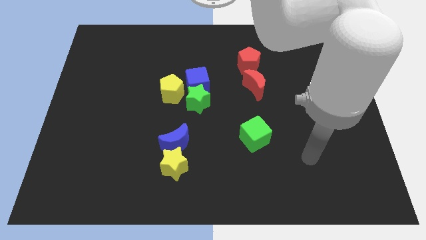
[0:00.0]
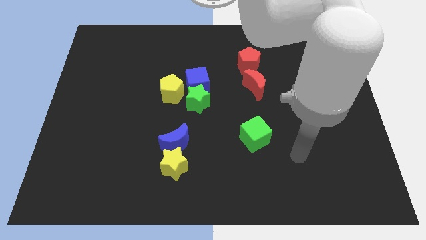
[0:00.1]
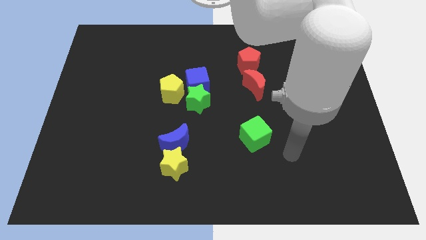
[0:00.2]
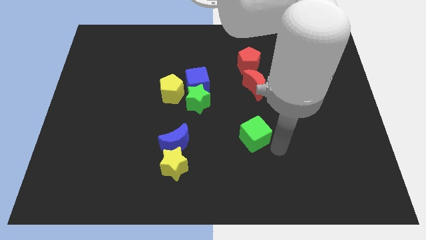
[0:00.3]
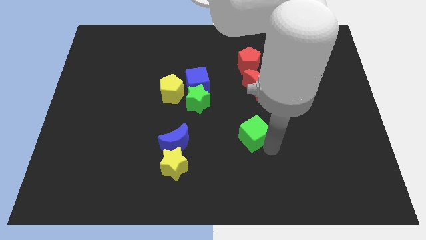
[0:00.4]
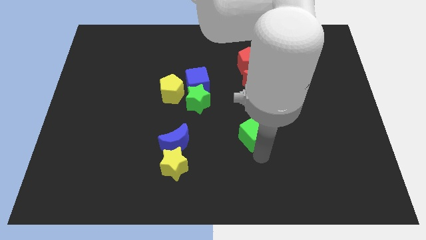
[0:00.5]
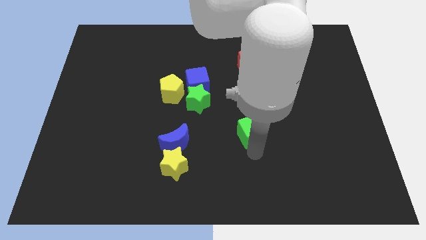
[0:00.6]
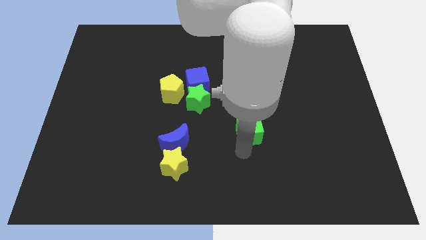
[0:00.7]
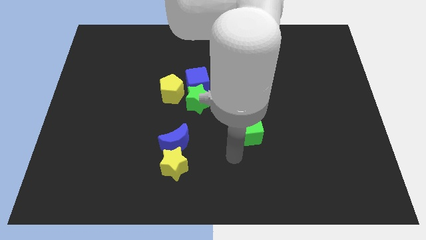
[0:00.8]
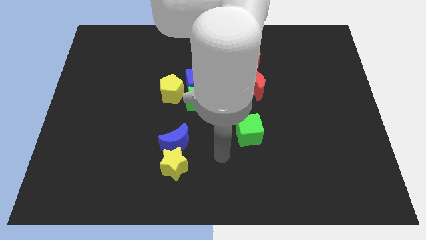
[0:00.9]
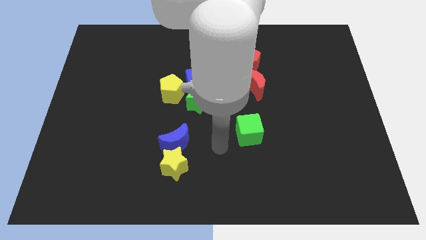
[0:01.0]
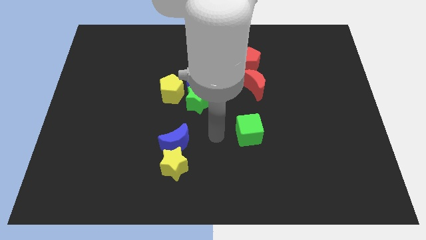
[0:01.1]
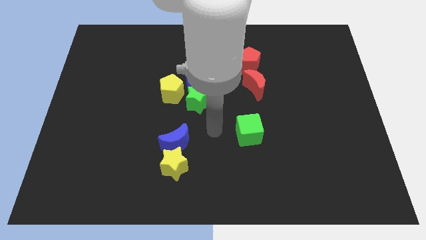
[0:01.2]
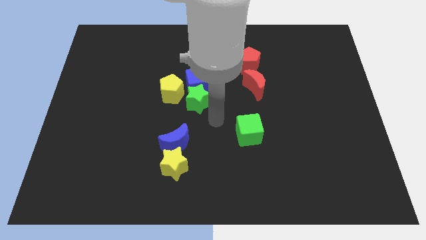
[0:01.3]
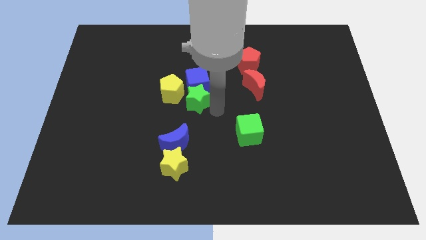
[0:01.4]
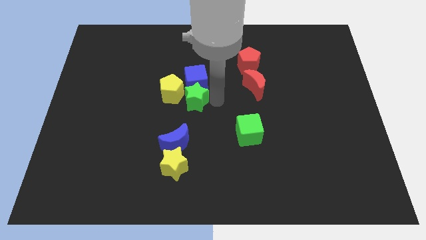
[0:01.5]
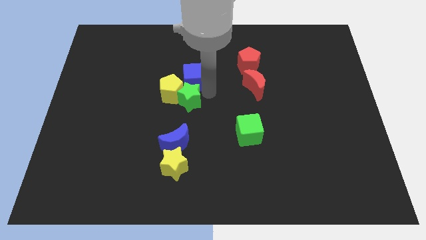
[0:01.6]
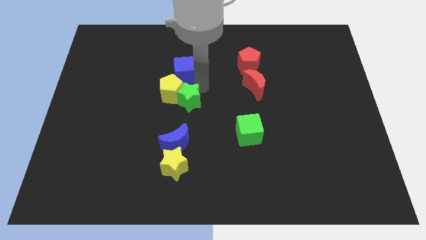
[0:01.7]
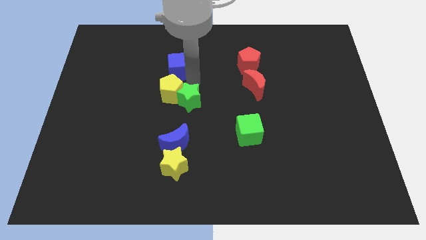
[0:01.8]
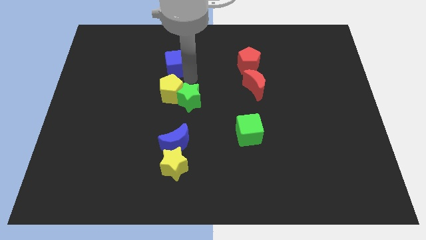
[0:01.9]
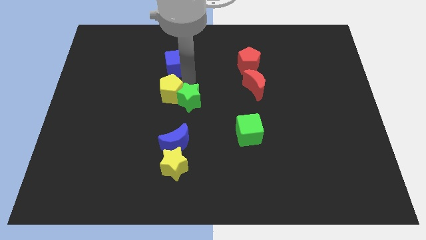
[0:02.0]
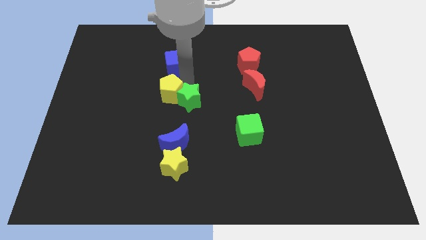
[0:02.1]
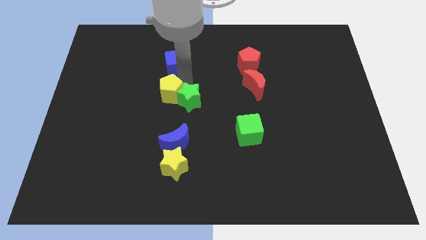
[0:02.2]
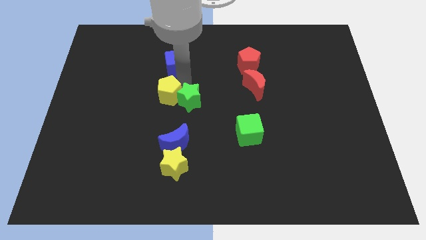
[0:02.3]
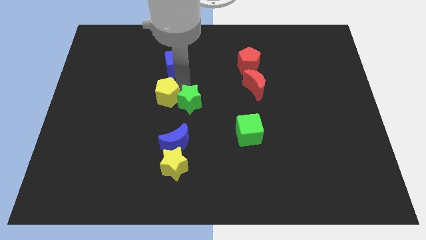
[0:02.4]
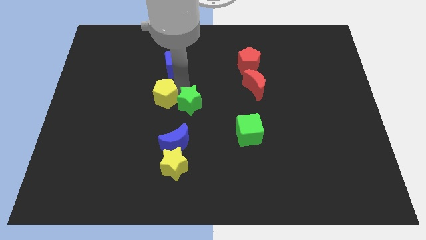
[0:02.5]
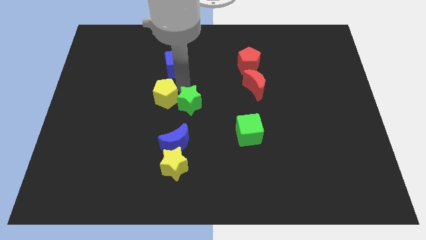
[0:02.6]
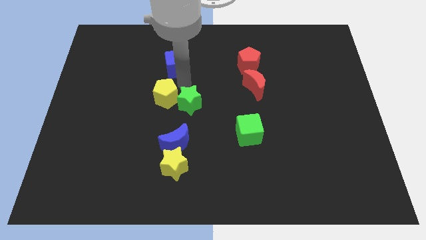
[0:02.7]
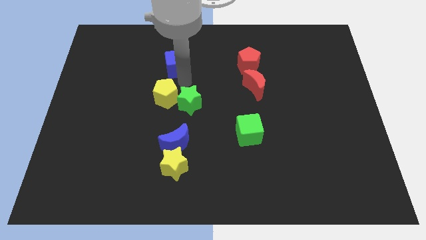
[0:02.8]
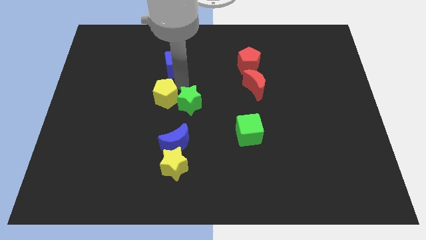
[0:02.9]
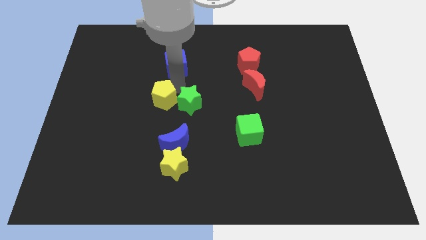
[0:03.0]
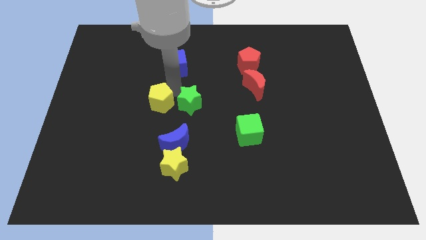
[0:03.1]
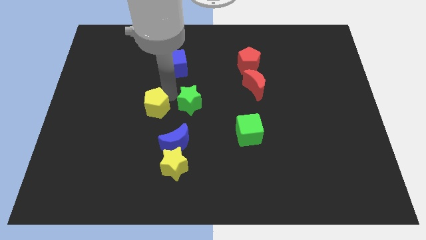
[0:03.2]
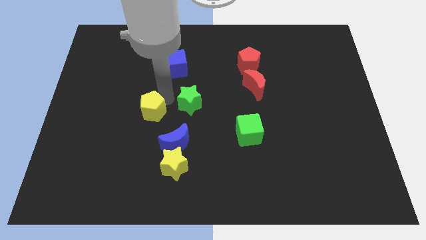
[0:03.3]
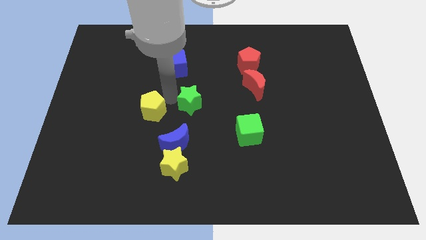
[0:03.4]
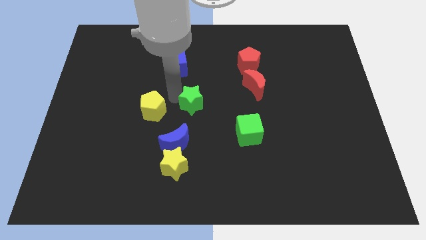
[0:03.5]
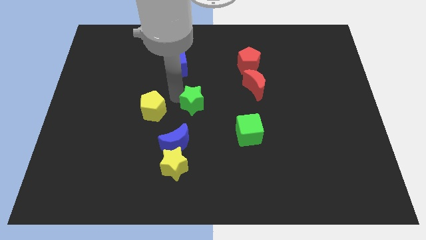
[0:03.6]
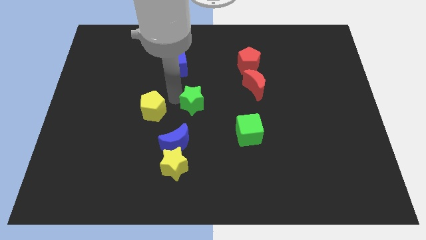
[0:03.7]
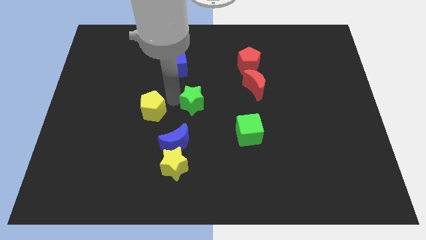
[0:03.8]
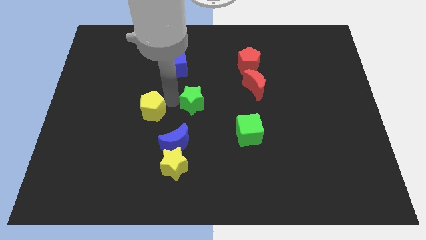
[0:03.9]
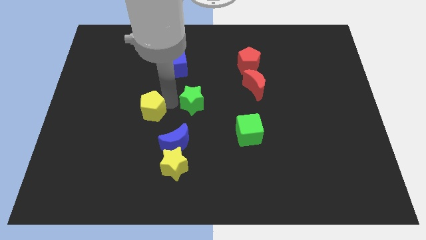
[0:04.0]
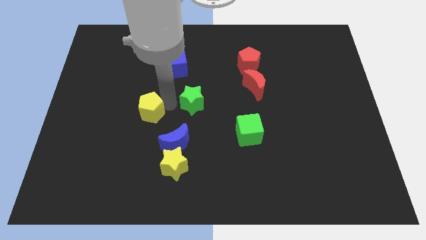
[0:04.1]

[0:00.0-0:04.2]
slightly move the yellow pentagon down and to the left diagonally

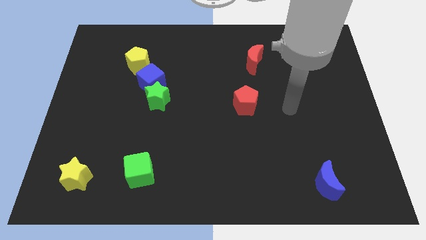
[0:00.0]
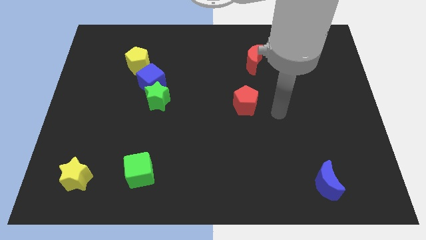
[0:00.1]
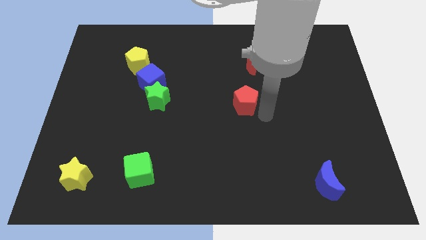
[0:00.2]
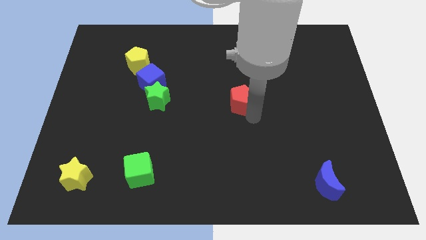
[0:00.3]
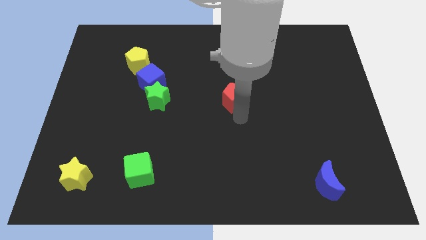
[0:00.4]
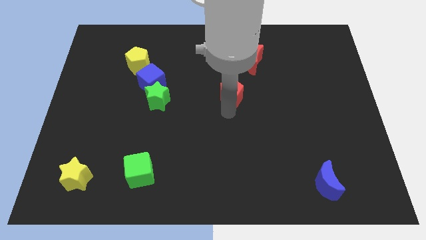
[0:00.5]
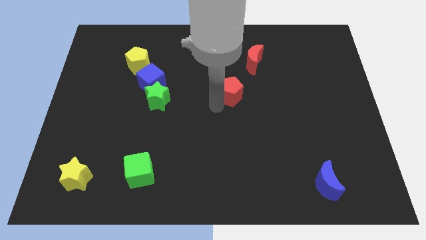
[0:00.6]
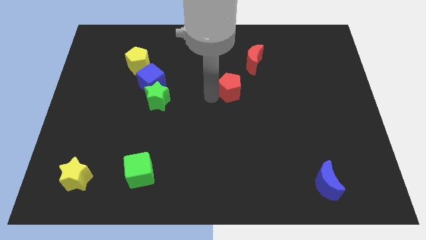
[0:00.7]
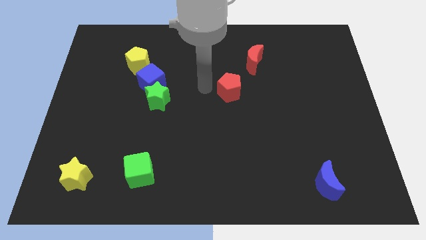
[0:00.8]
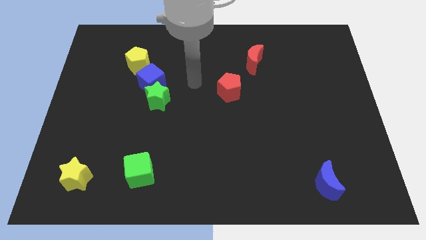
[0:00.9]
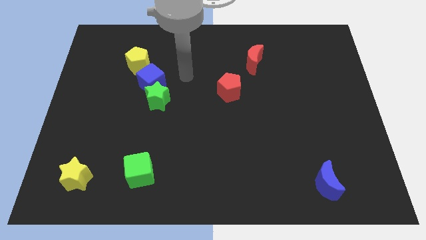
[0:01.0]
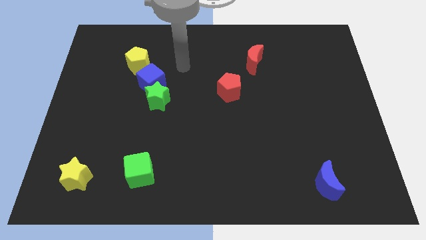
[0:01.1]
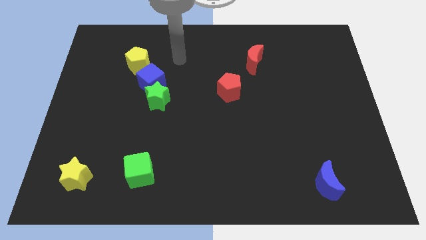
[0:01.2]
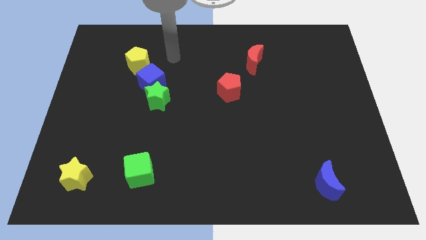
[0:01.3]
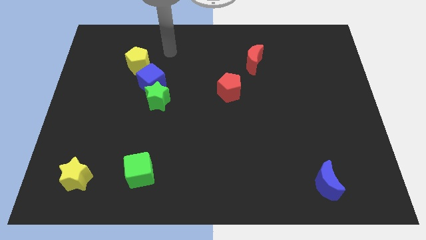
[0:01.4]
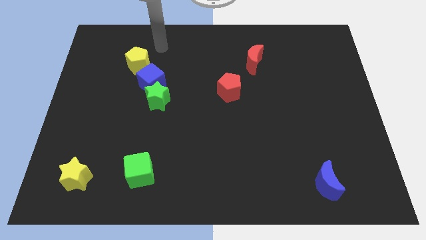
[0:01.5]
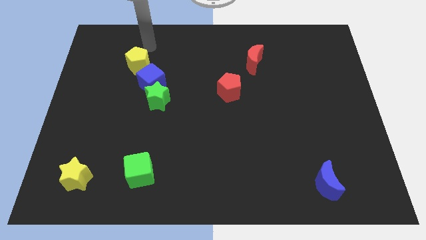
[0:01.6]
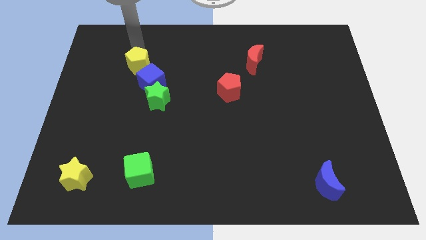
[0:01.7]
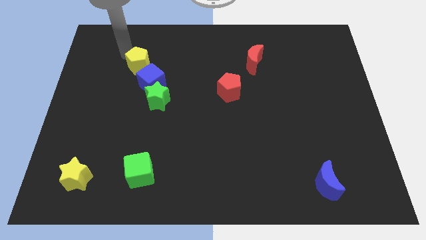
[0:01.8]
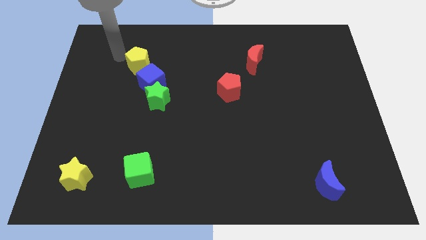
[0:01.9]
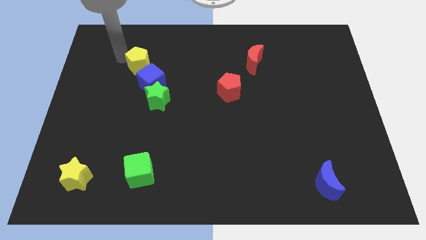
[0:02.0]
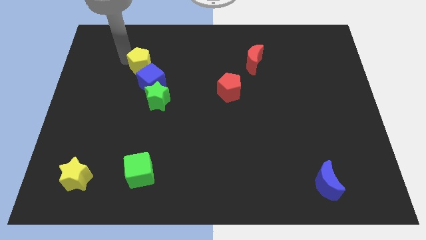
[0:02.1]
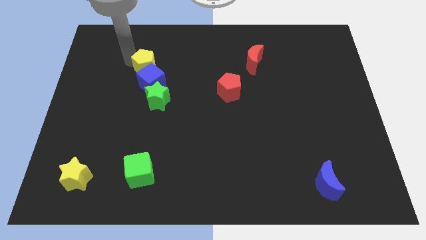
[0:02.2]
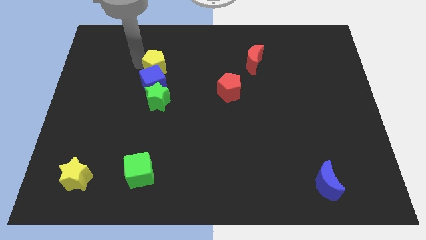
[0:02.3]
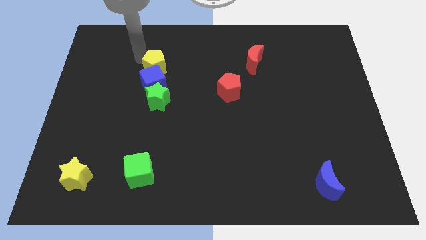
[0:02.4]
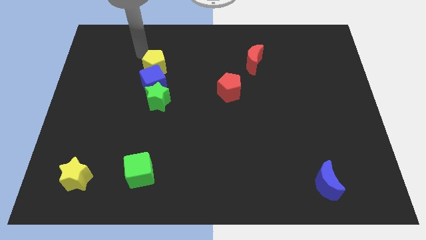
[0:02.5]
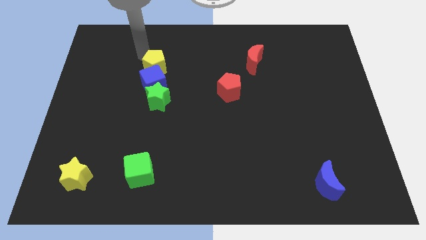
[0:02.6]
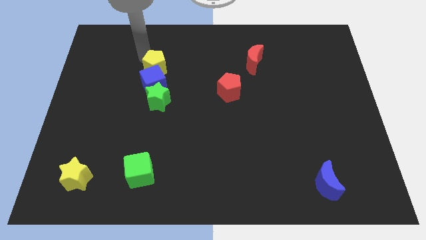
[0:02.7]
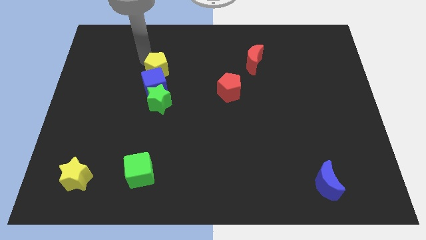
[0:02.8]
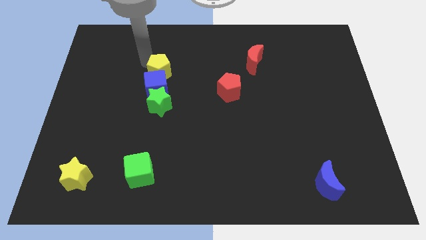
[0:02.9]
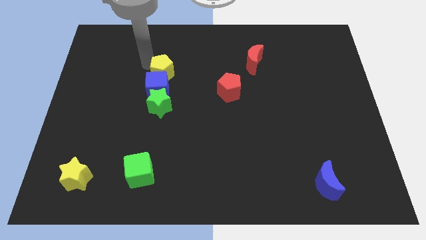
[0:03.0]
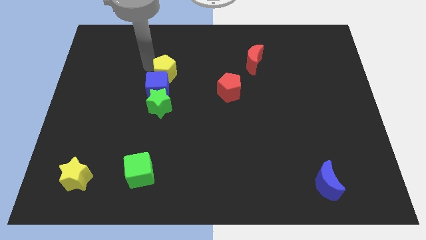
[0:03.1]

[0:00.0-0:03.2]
slide the yellow pentagon a little downwards and then to the right

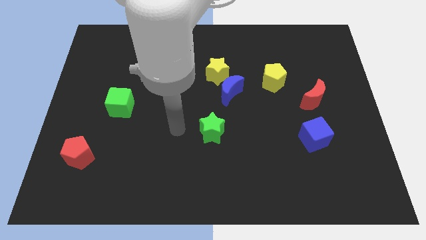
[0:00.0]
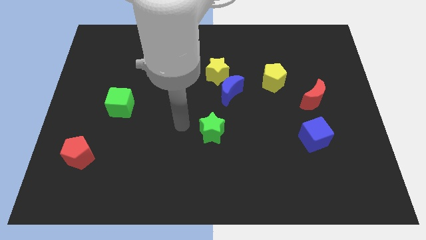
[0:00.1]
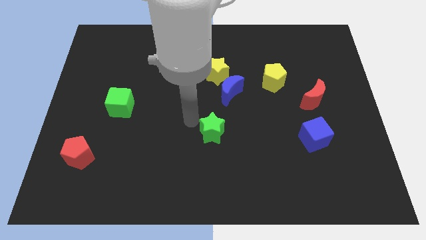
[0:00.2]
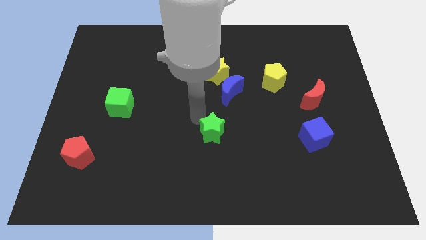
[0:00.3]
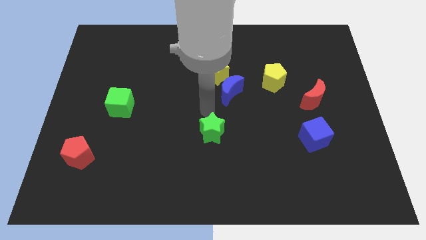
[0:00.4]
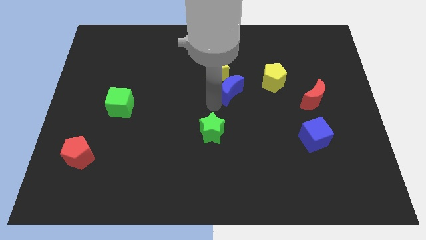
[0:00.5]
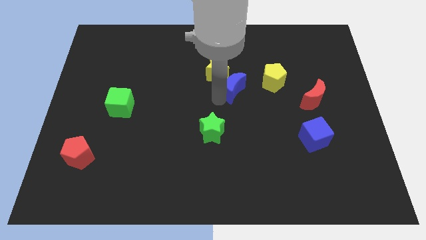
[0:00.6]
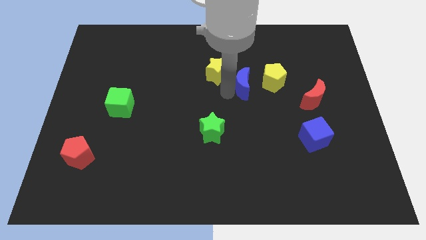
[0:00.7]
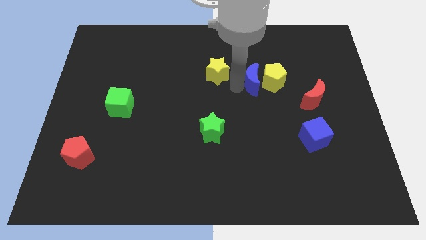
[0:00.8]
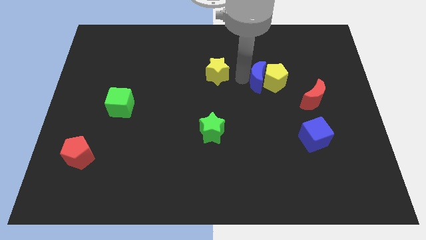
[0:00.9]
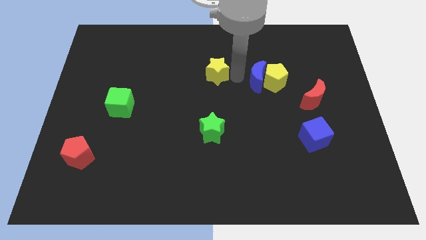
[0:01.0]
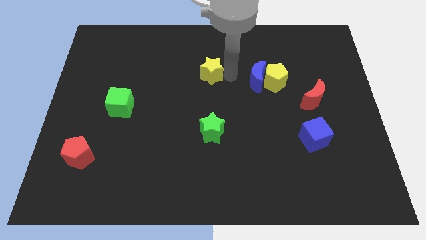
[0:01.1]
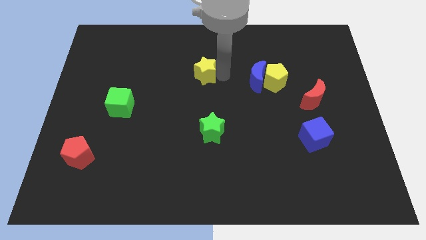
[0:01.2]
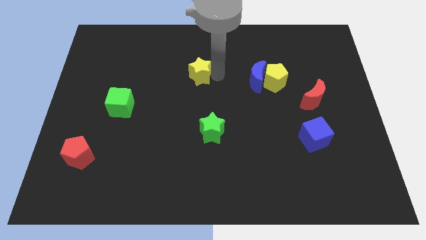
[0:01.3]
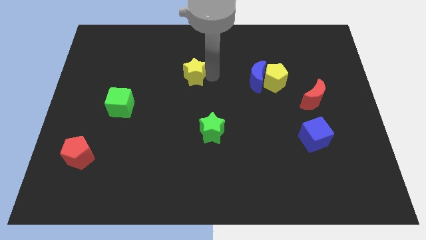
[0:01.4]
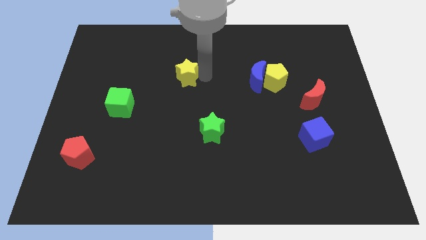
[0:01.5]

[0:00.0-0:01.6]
push the yellow star to the left somewhat
